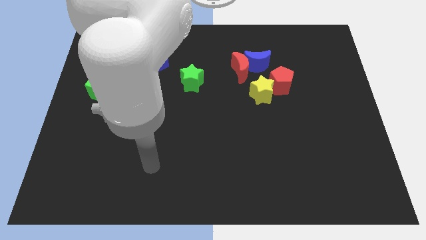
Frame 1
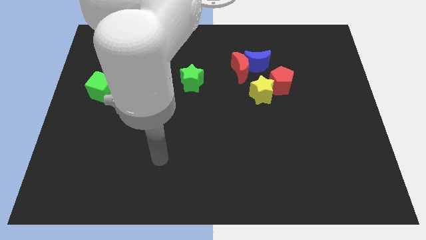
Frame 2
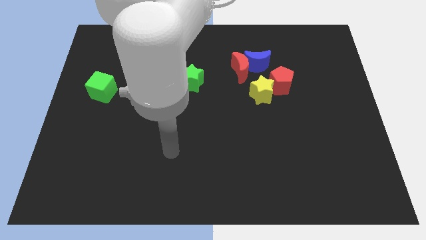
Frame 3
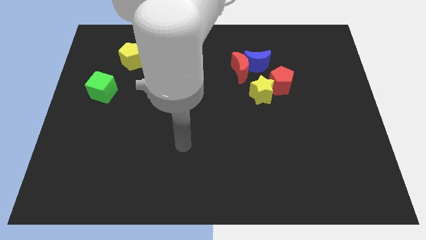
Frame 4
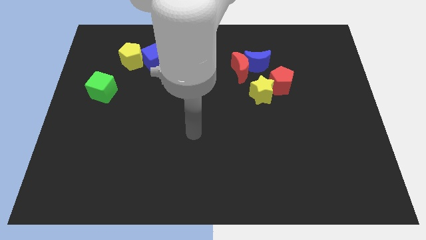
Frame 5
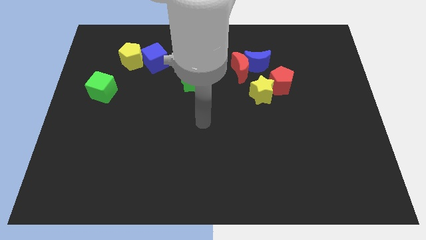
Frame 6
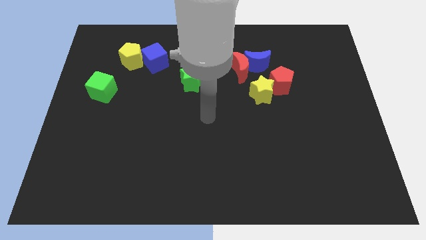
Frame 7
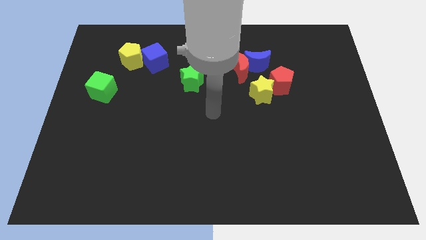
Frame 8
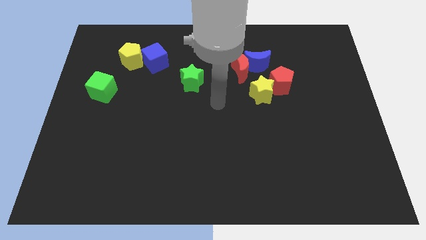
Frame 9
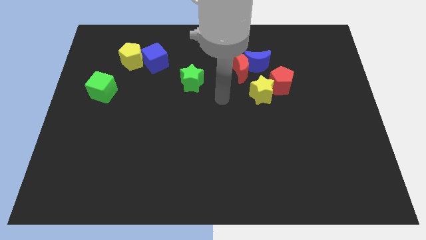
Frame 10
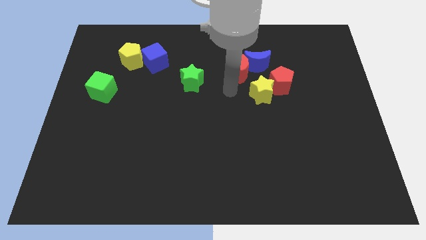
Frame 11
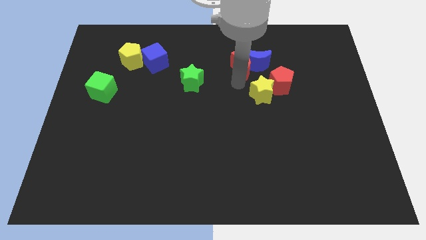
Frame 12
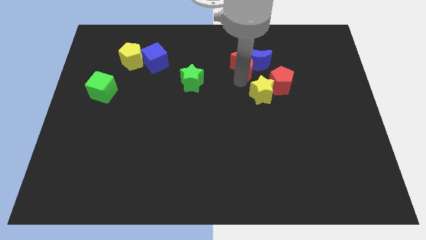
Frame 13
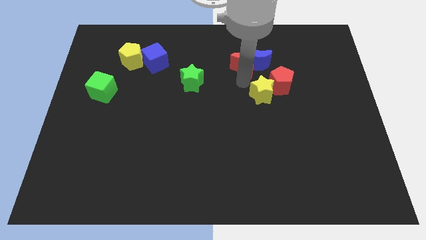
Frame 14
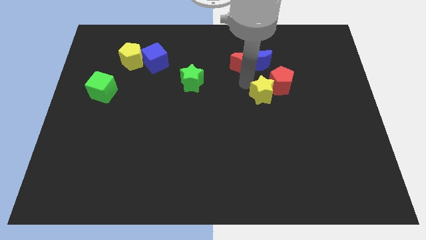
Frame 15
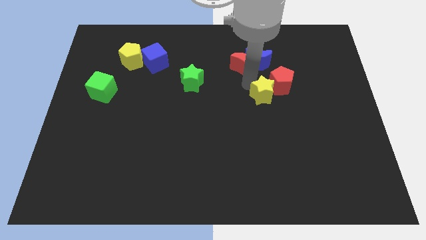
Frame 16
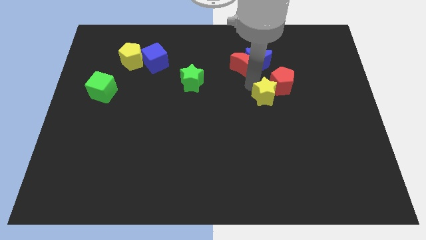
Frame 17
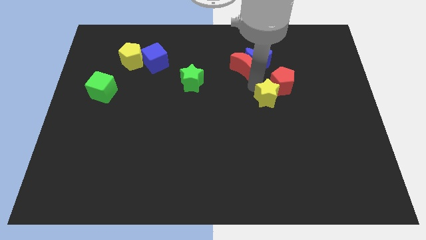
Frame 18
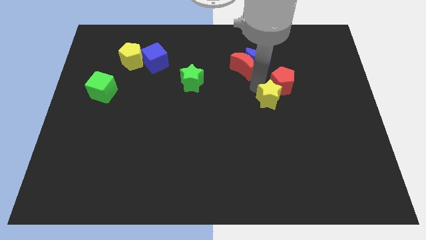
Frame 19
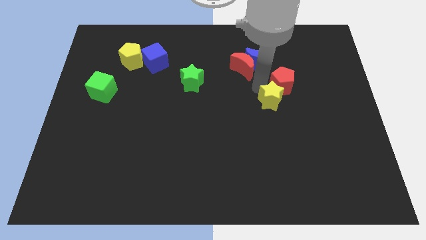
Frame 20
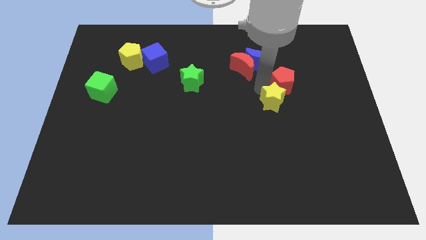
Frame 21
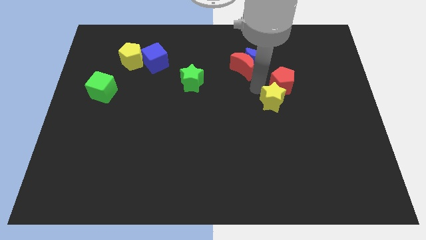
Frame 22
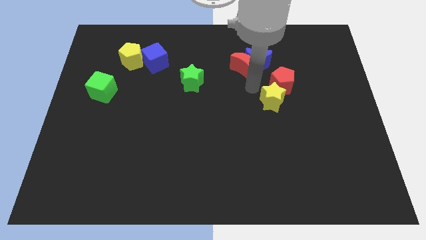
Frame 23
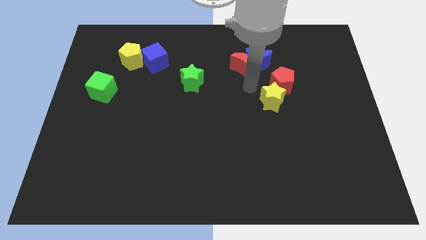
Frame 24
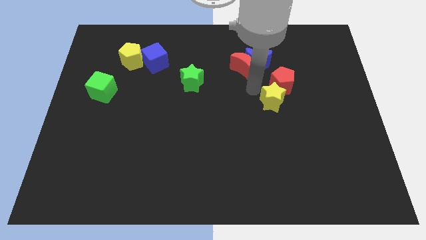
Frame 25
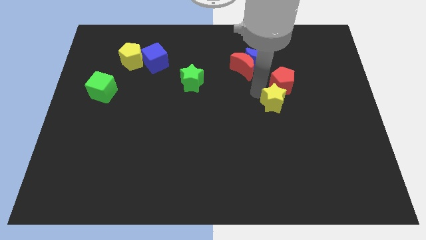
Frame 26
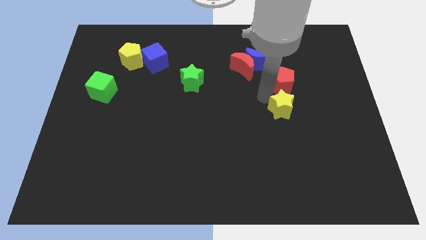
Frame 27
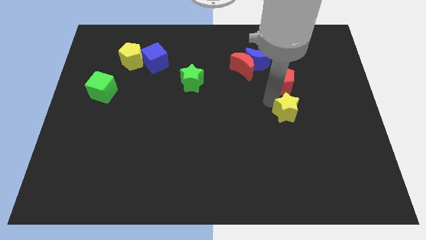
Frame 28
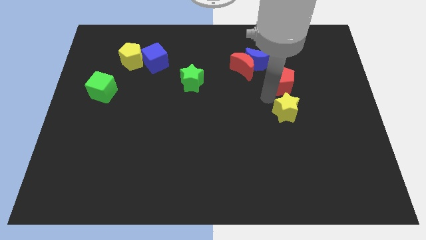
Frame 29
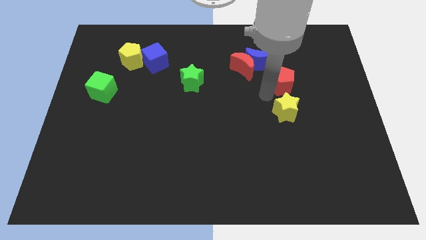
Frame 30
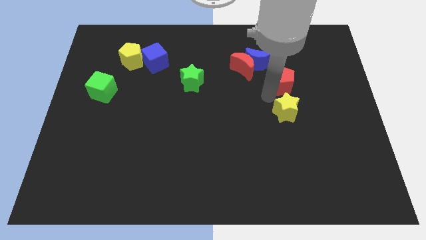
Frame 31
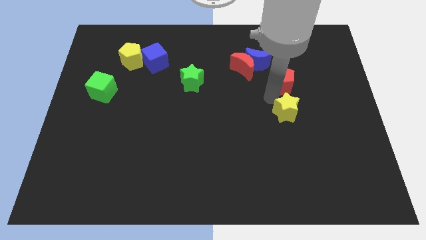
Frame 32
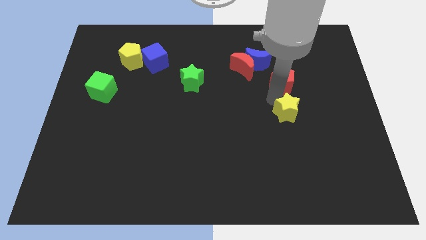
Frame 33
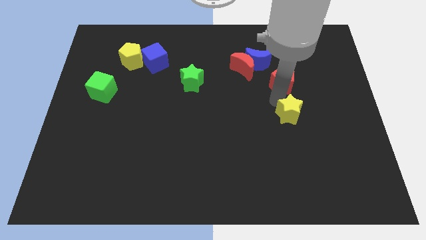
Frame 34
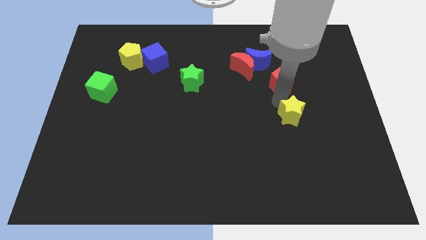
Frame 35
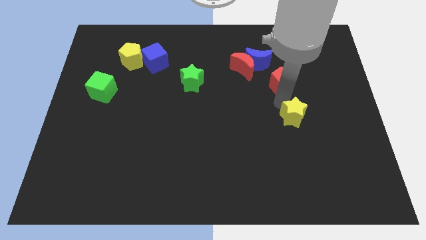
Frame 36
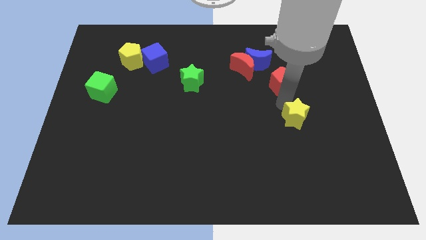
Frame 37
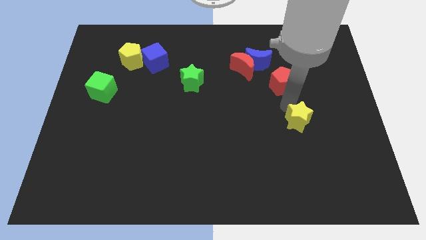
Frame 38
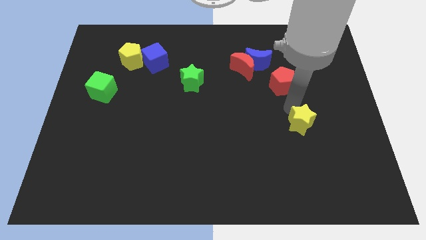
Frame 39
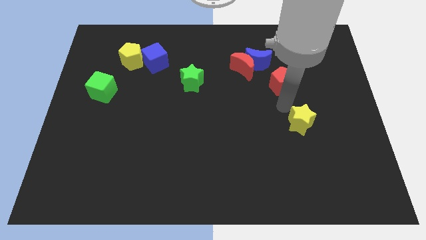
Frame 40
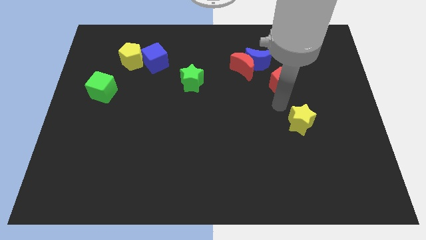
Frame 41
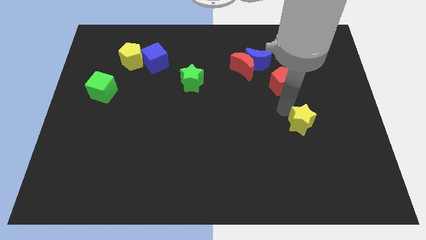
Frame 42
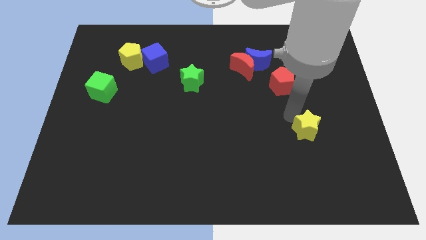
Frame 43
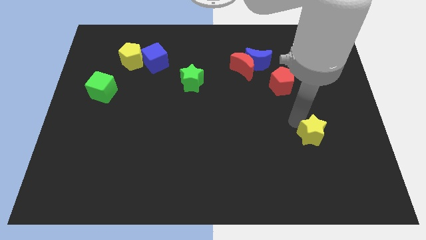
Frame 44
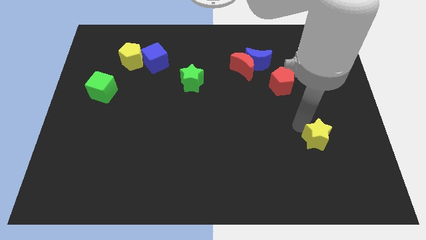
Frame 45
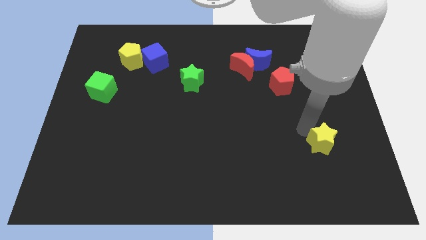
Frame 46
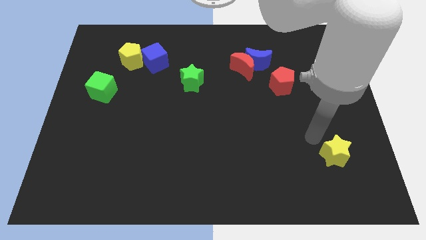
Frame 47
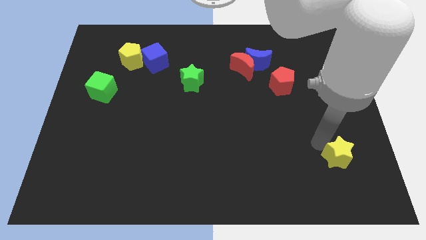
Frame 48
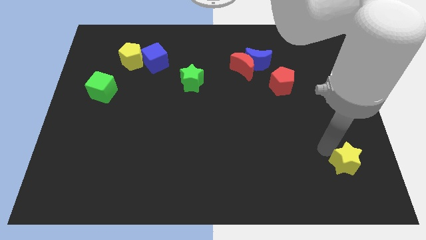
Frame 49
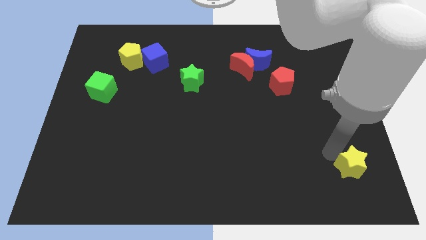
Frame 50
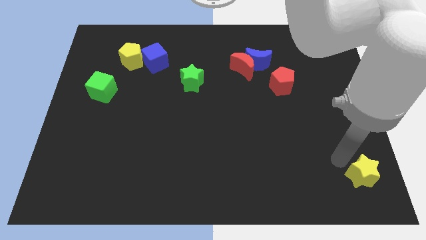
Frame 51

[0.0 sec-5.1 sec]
slide the yellow star to the bottom right

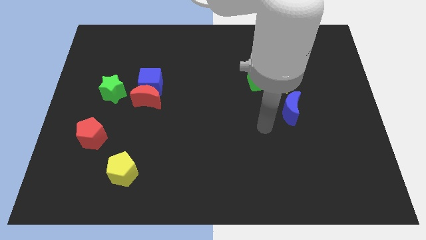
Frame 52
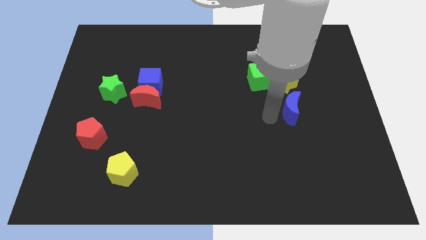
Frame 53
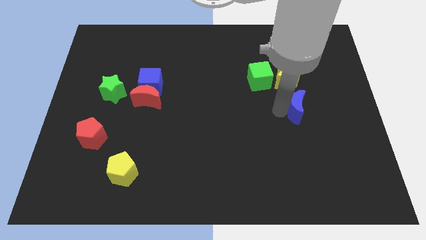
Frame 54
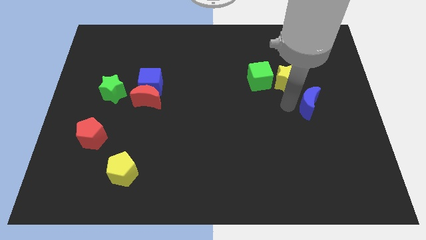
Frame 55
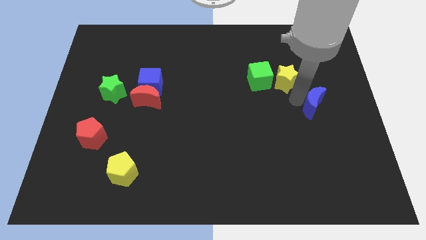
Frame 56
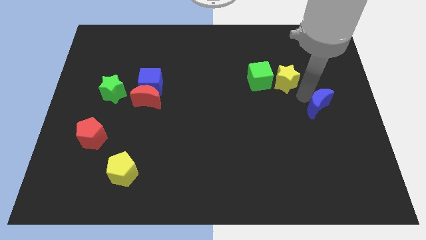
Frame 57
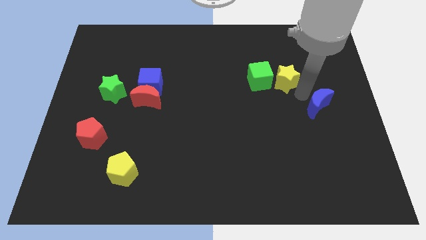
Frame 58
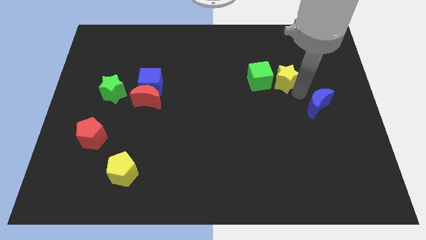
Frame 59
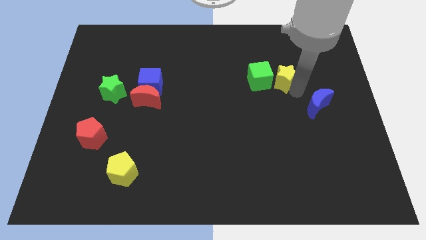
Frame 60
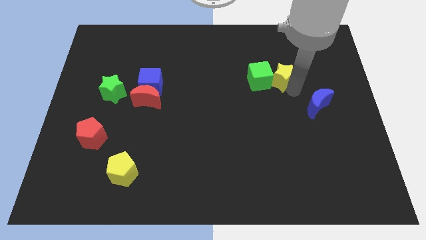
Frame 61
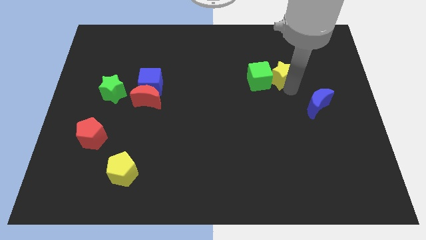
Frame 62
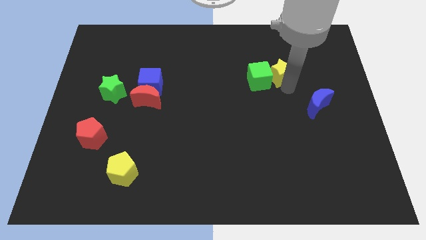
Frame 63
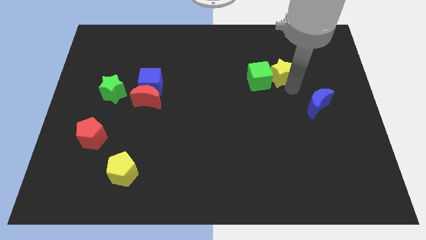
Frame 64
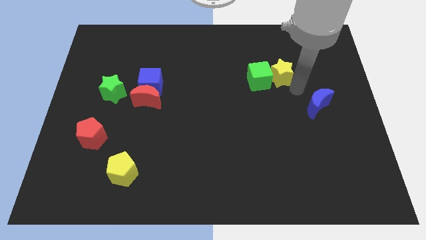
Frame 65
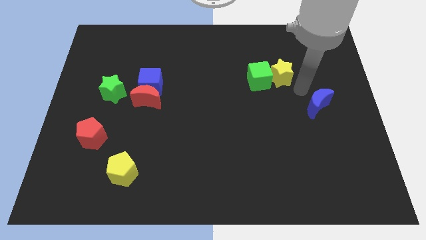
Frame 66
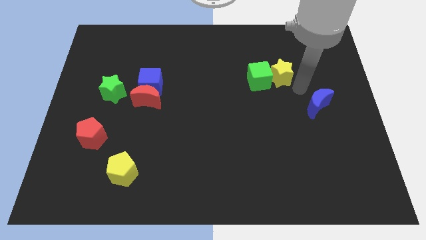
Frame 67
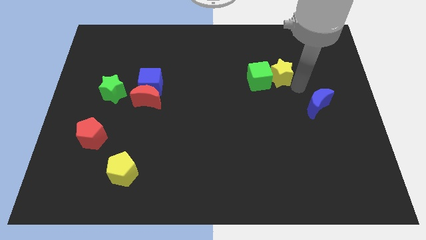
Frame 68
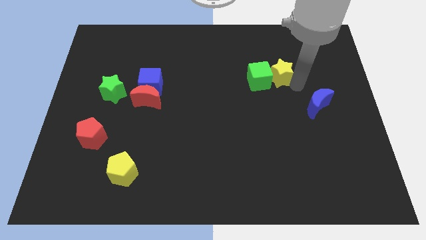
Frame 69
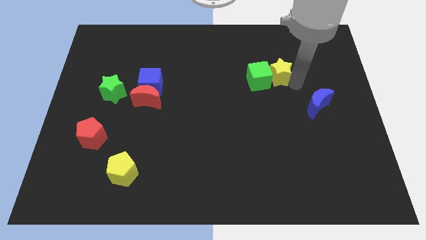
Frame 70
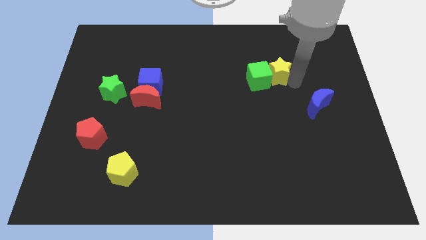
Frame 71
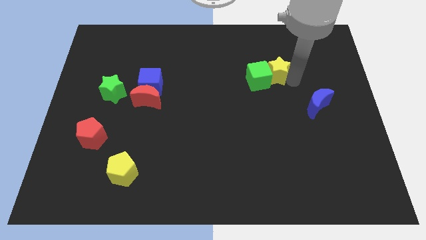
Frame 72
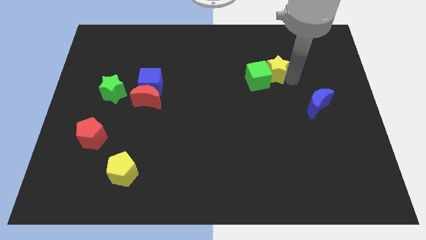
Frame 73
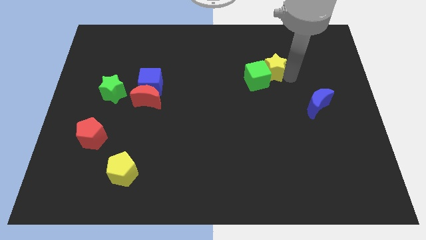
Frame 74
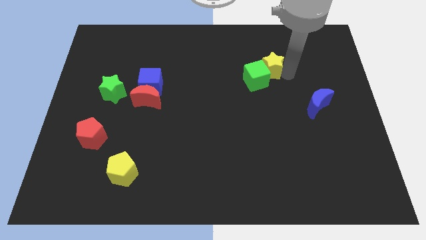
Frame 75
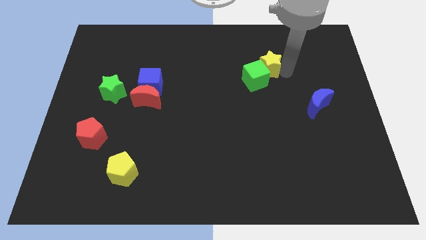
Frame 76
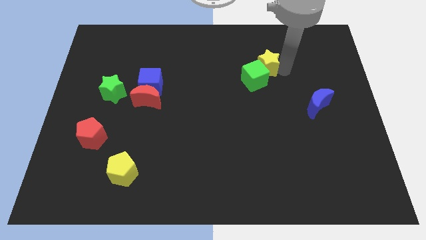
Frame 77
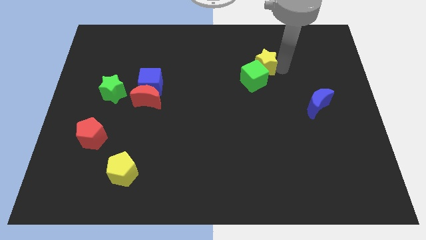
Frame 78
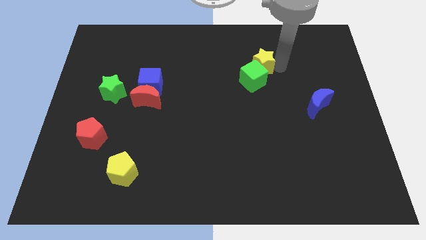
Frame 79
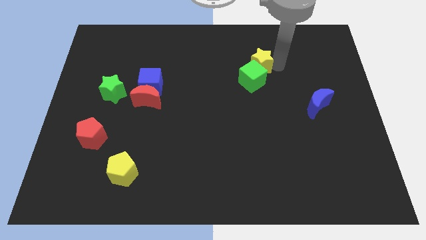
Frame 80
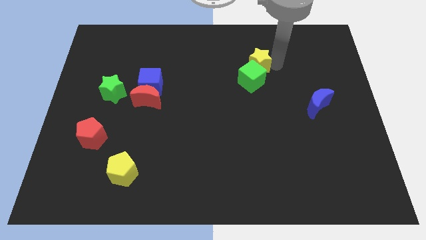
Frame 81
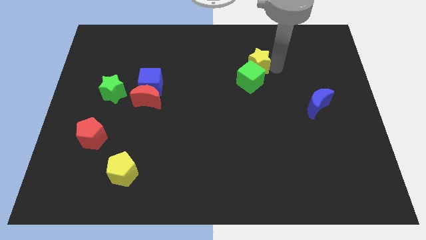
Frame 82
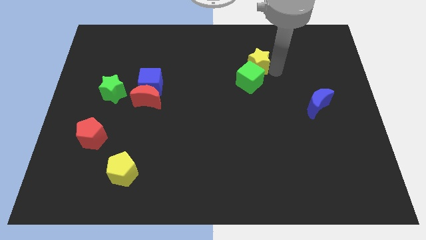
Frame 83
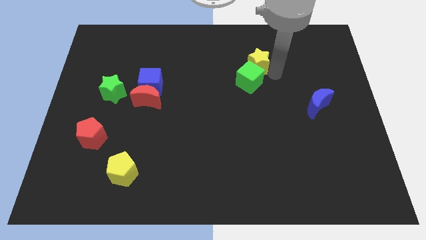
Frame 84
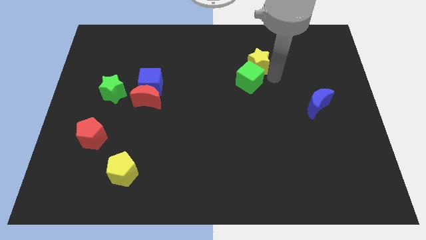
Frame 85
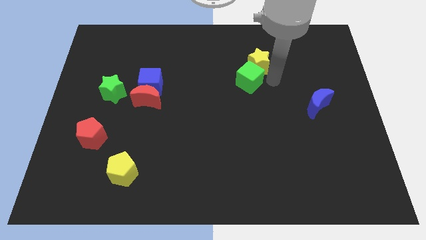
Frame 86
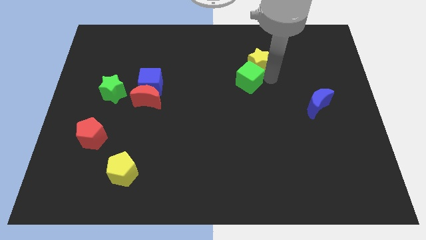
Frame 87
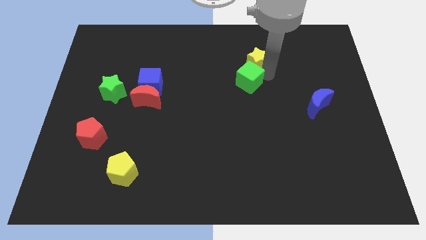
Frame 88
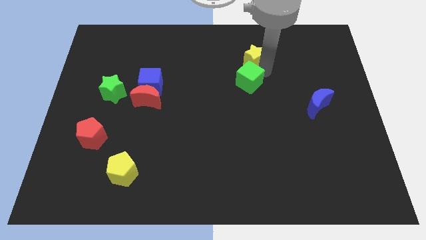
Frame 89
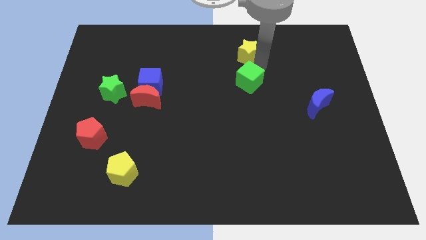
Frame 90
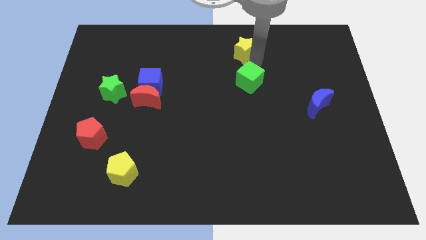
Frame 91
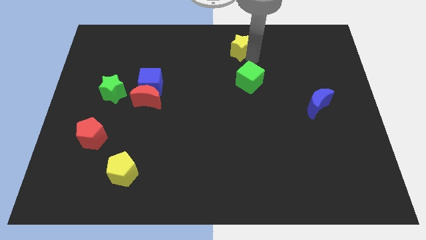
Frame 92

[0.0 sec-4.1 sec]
put the yellow star to the top
